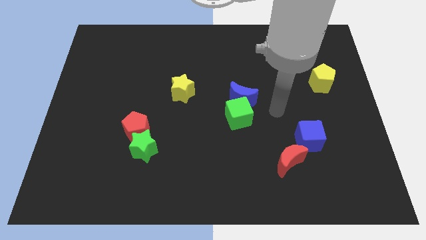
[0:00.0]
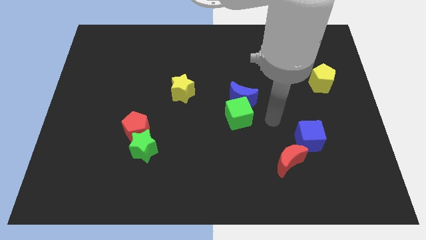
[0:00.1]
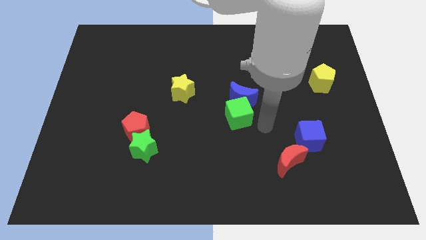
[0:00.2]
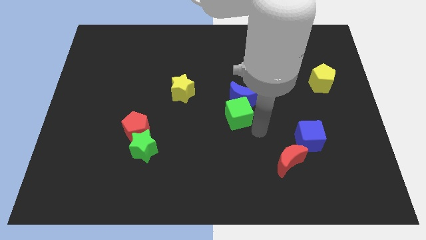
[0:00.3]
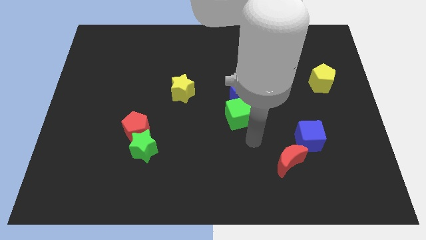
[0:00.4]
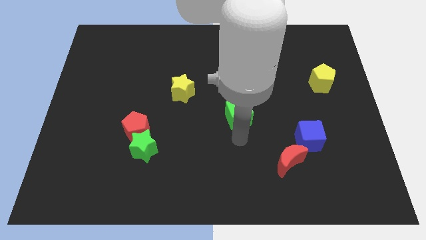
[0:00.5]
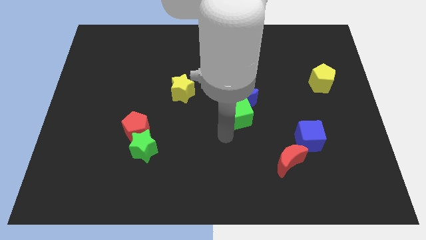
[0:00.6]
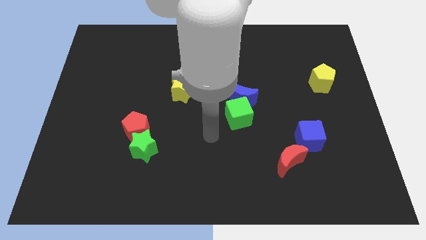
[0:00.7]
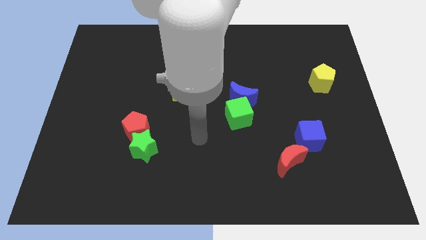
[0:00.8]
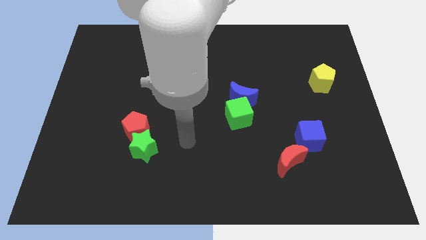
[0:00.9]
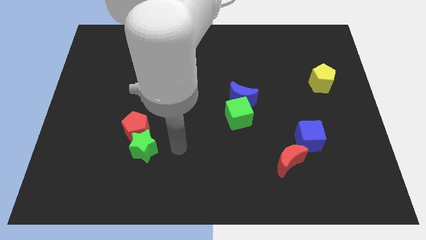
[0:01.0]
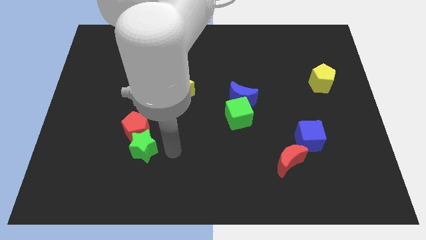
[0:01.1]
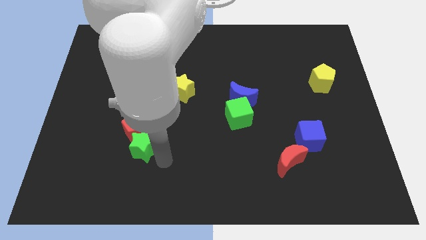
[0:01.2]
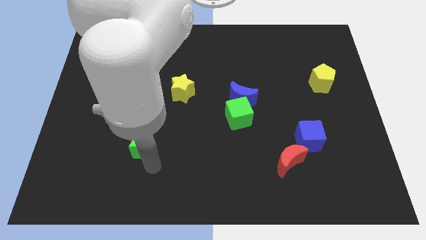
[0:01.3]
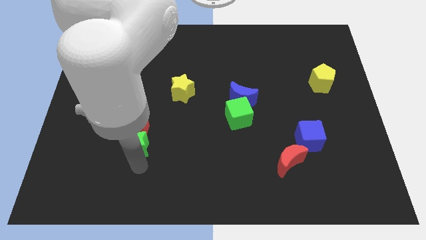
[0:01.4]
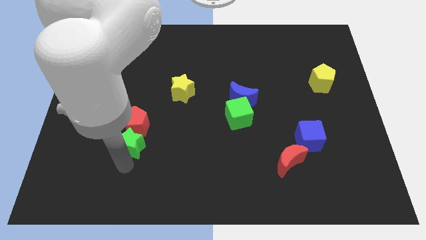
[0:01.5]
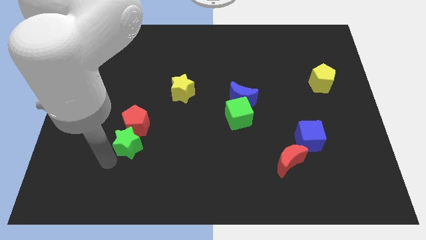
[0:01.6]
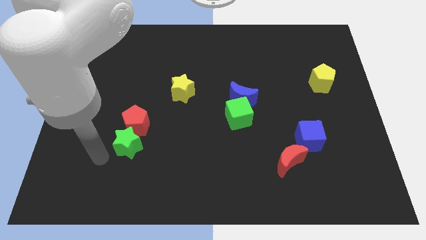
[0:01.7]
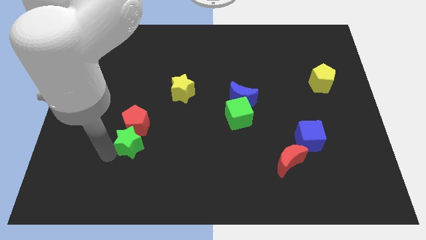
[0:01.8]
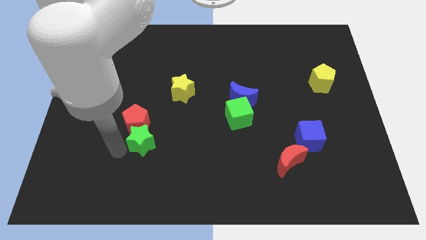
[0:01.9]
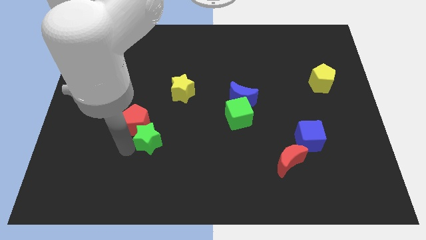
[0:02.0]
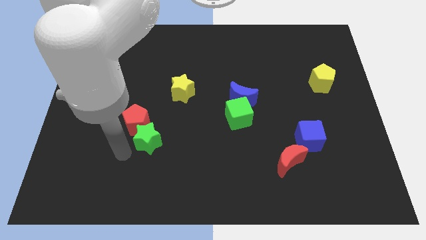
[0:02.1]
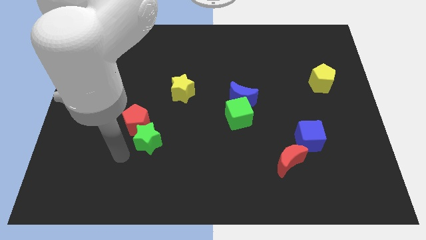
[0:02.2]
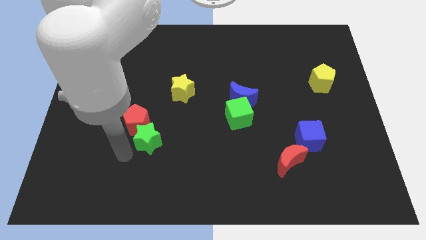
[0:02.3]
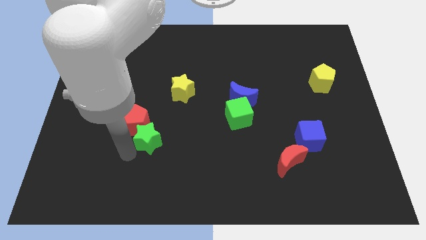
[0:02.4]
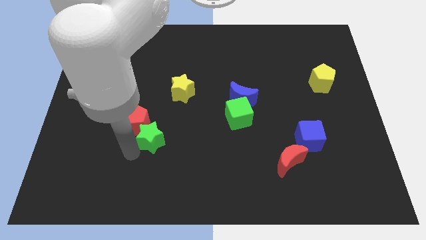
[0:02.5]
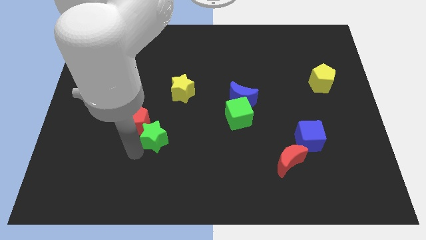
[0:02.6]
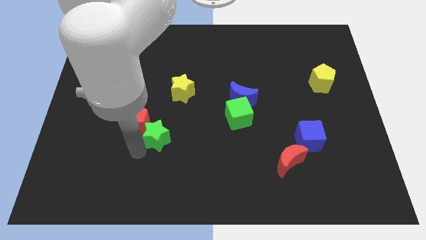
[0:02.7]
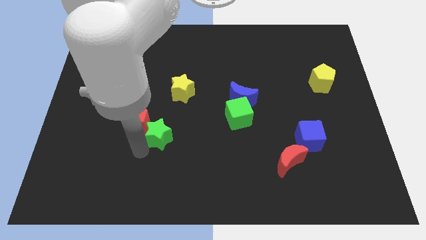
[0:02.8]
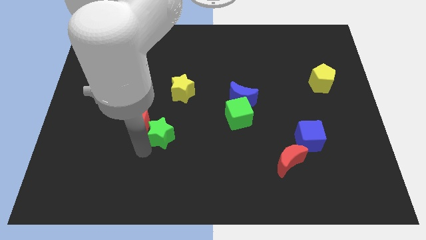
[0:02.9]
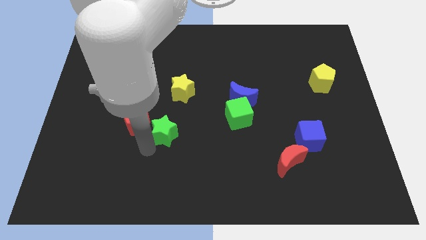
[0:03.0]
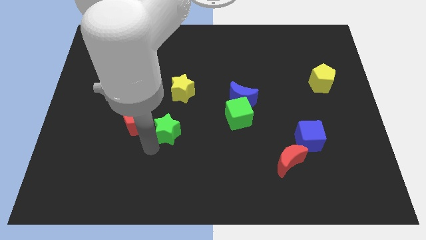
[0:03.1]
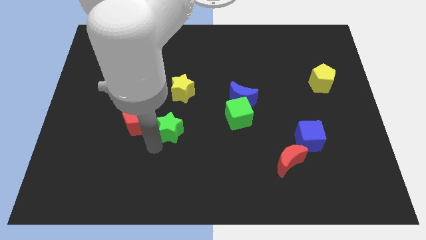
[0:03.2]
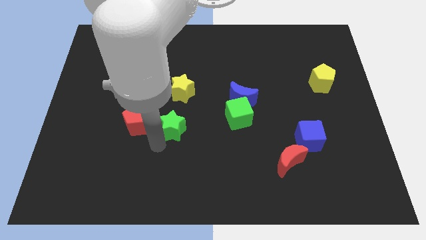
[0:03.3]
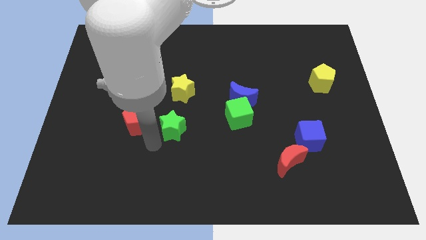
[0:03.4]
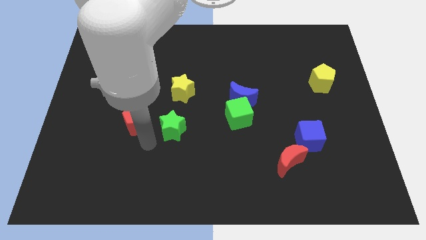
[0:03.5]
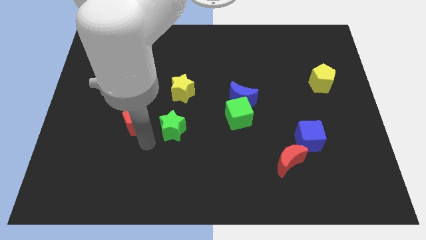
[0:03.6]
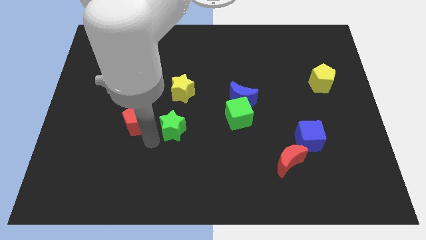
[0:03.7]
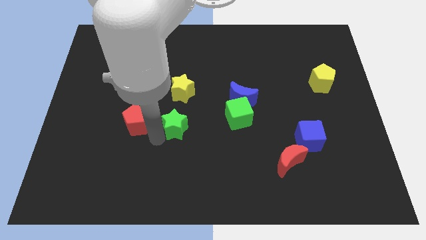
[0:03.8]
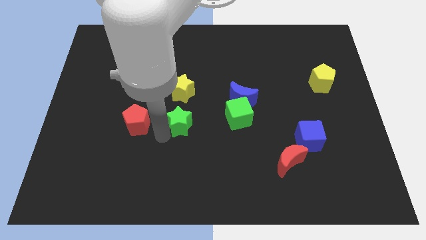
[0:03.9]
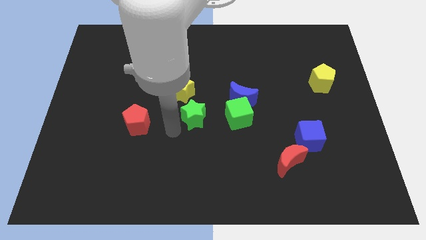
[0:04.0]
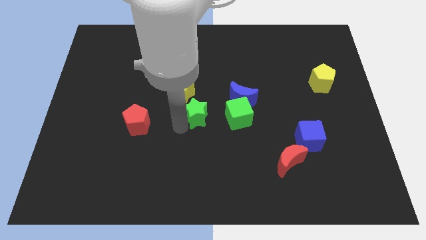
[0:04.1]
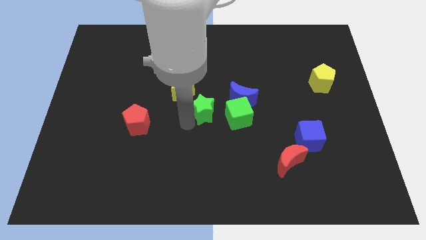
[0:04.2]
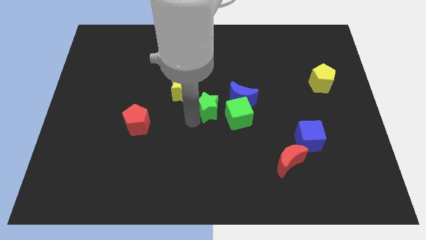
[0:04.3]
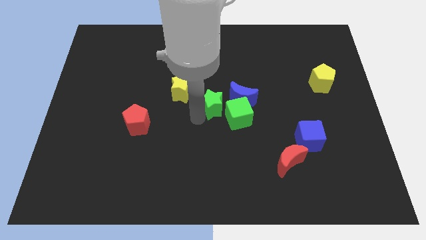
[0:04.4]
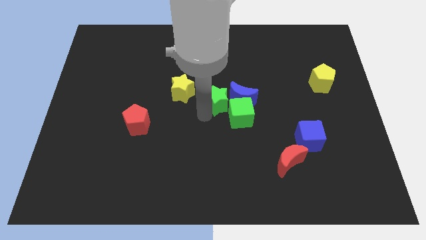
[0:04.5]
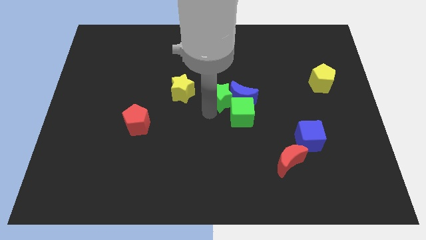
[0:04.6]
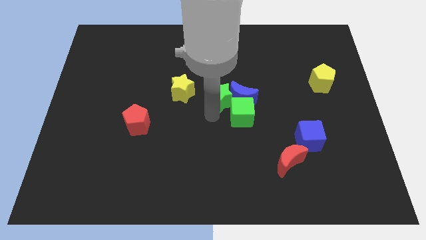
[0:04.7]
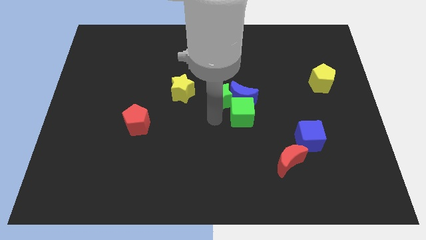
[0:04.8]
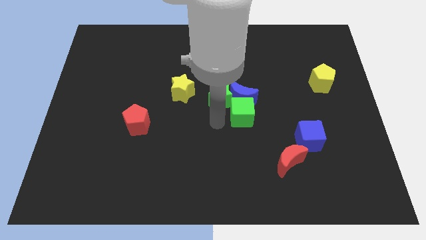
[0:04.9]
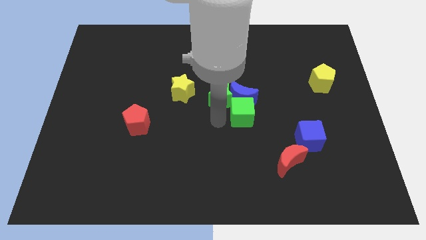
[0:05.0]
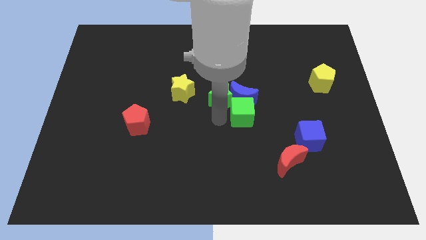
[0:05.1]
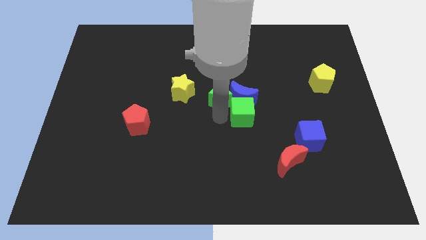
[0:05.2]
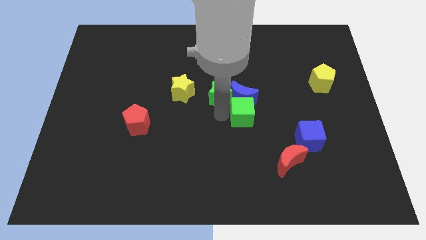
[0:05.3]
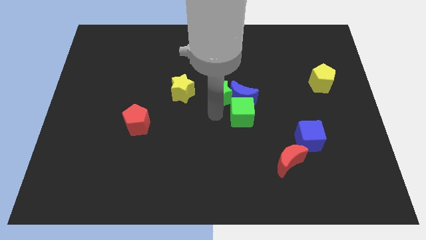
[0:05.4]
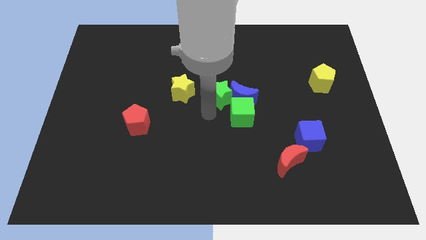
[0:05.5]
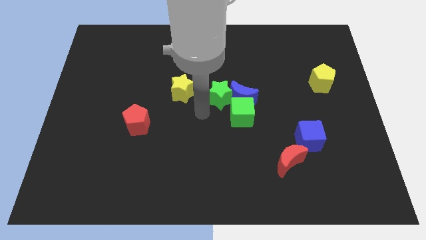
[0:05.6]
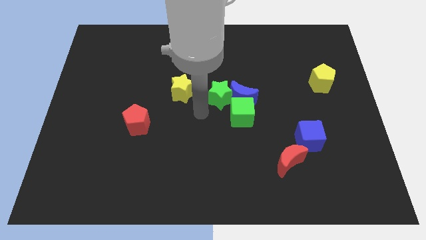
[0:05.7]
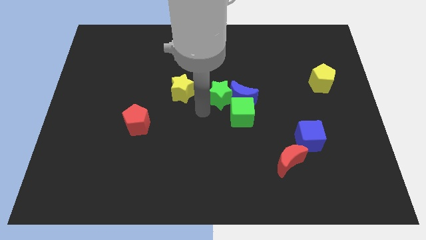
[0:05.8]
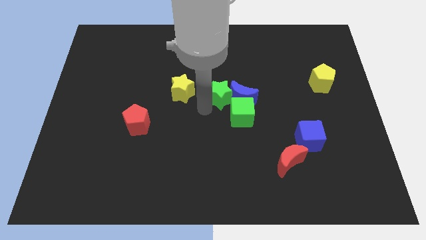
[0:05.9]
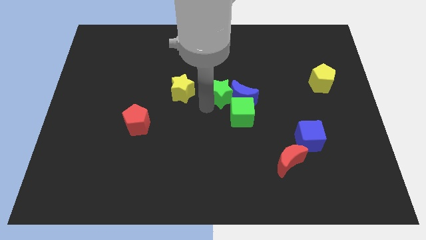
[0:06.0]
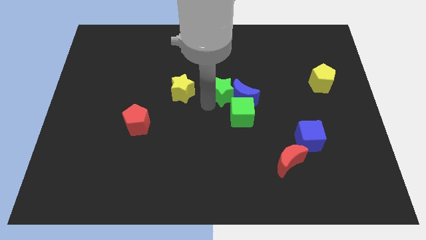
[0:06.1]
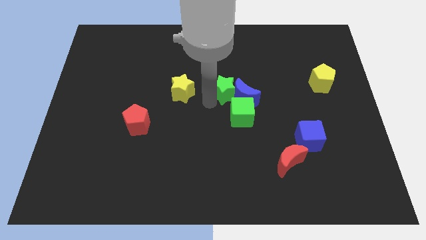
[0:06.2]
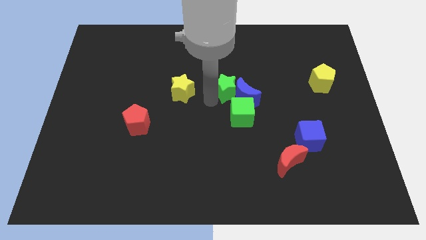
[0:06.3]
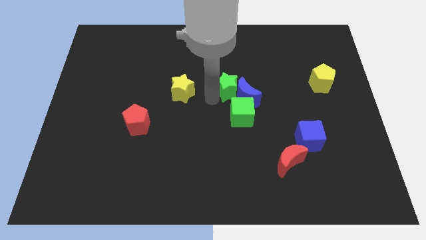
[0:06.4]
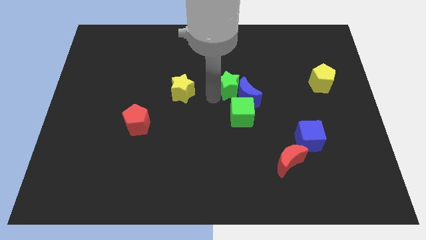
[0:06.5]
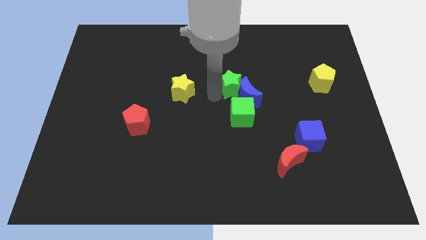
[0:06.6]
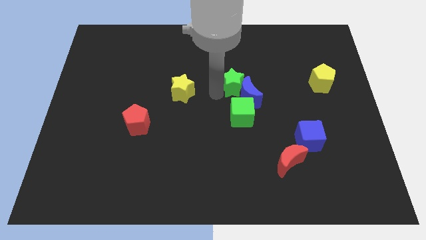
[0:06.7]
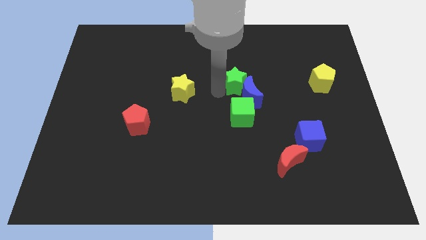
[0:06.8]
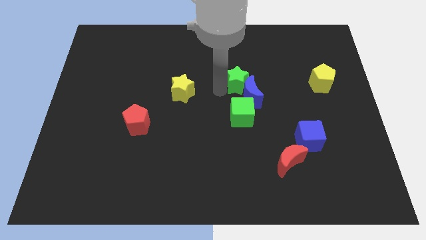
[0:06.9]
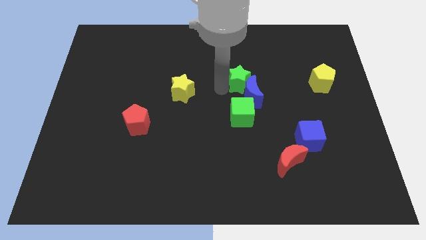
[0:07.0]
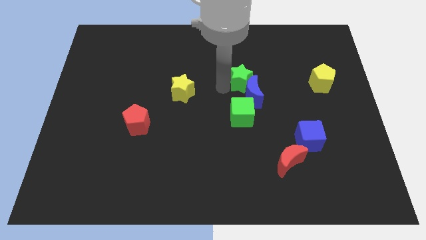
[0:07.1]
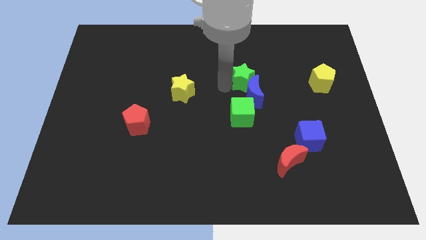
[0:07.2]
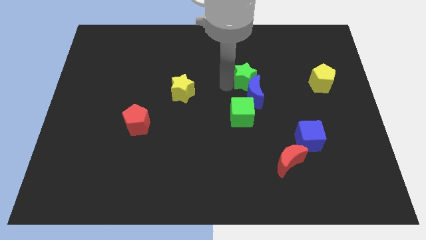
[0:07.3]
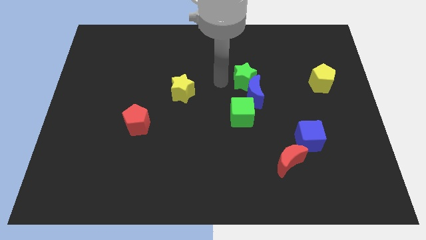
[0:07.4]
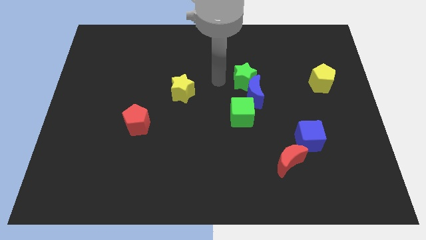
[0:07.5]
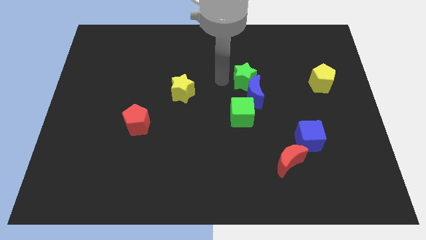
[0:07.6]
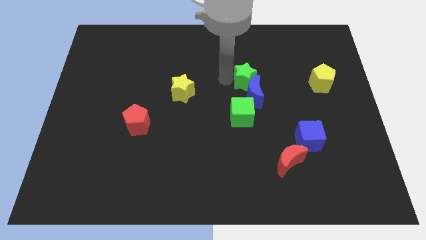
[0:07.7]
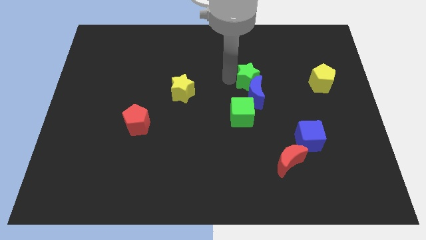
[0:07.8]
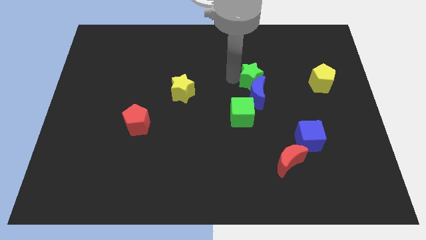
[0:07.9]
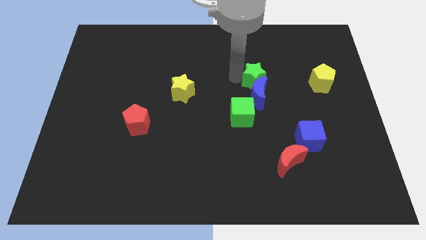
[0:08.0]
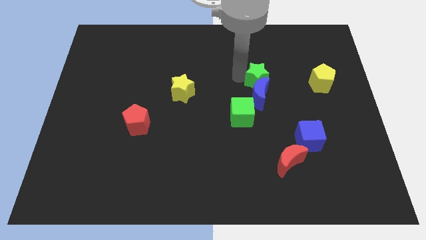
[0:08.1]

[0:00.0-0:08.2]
move the green star just left of the yellow pentagon
